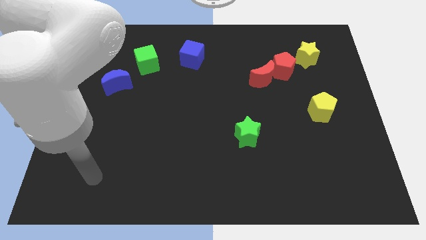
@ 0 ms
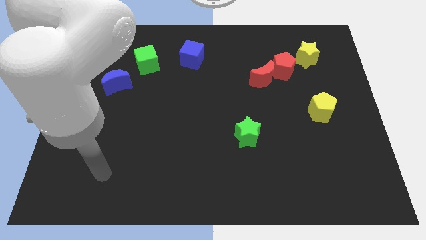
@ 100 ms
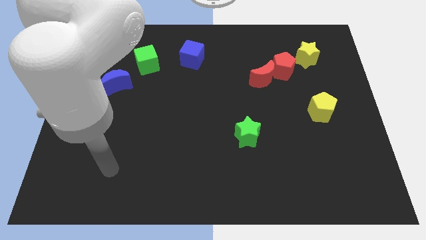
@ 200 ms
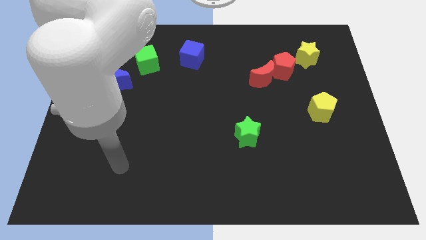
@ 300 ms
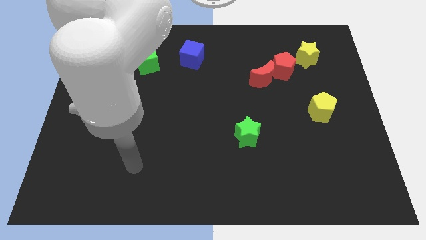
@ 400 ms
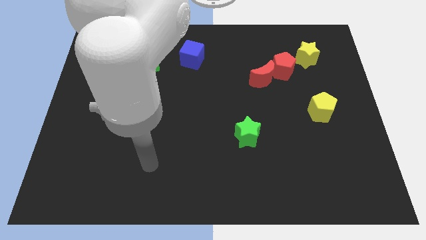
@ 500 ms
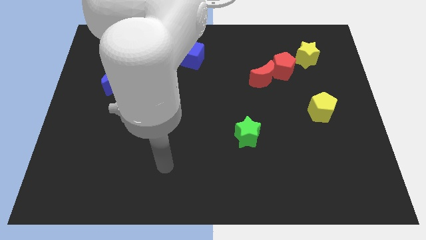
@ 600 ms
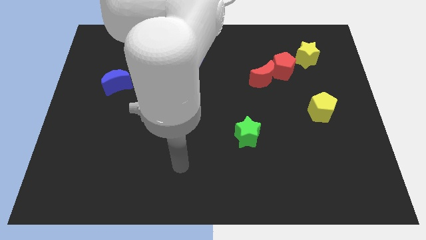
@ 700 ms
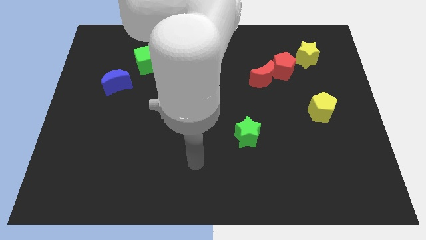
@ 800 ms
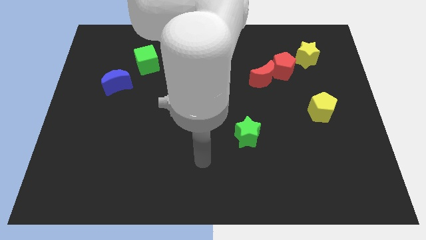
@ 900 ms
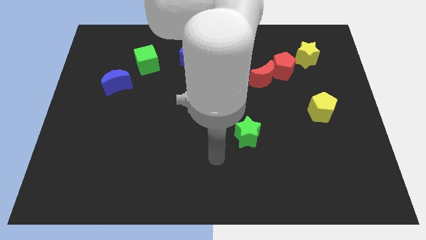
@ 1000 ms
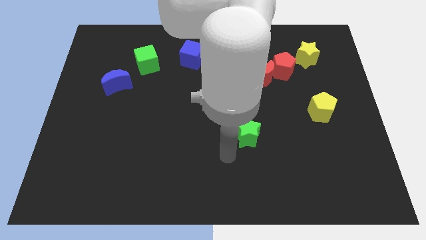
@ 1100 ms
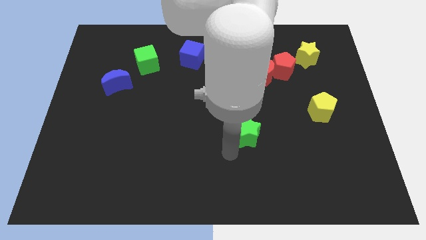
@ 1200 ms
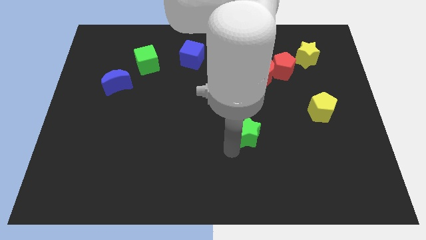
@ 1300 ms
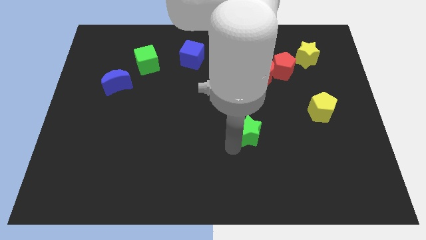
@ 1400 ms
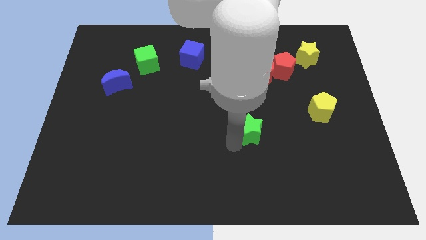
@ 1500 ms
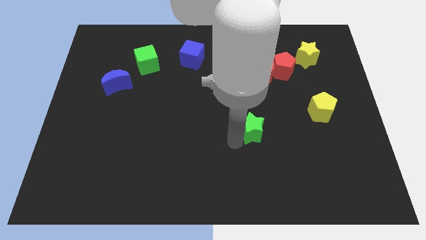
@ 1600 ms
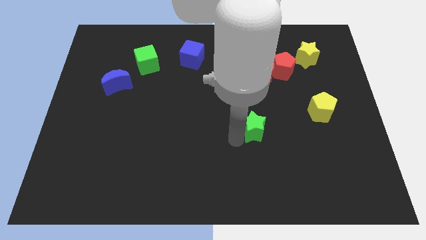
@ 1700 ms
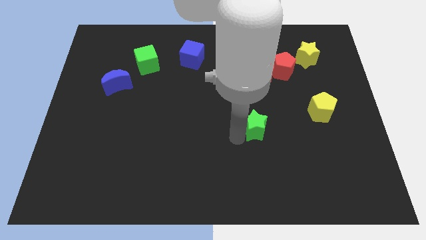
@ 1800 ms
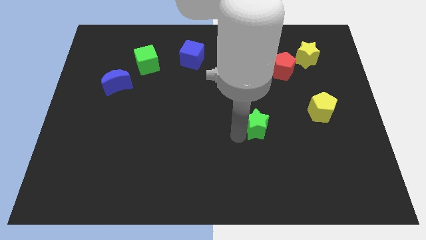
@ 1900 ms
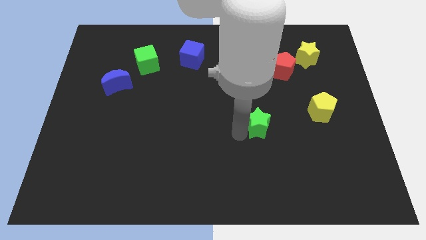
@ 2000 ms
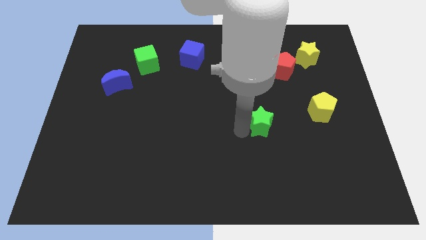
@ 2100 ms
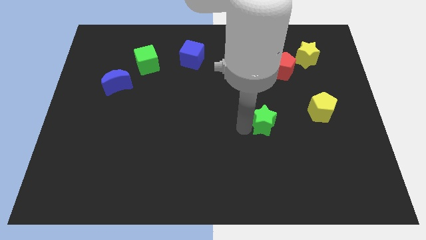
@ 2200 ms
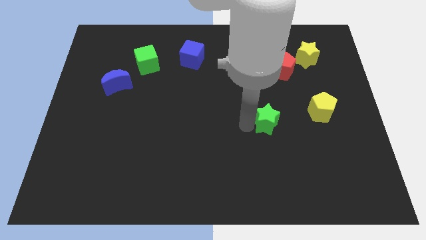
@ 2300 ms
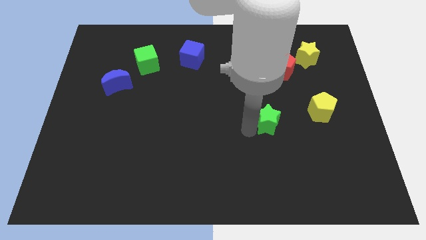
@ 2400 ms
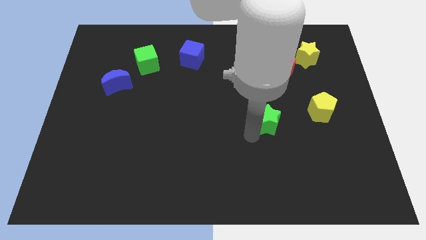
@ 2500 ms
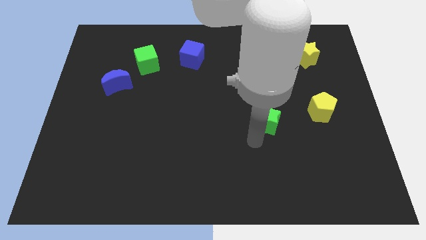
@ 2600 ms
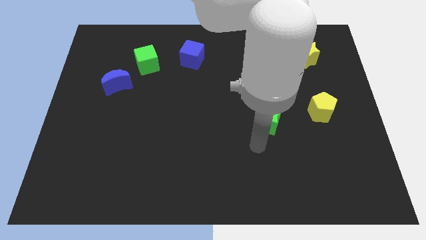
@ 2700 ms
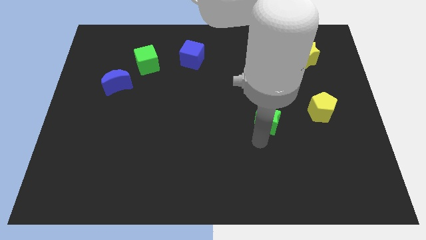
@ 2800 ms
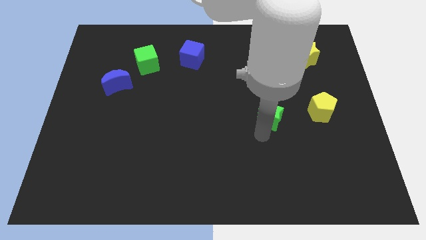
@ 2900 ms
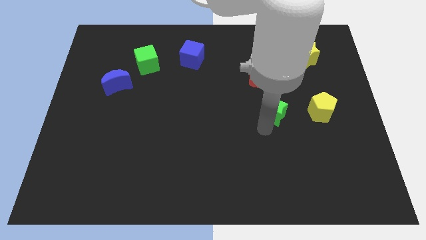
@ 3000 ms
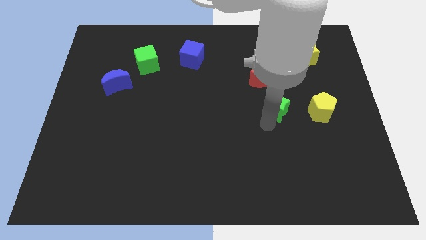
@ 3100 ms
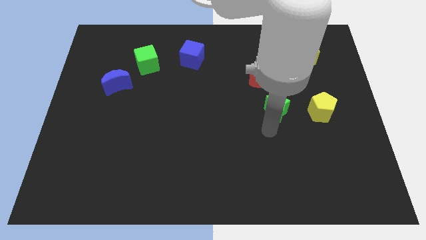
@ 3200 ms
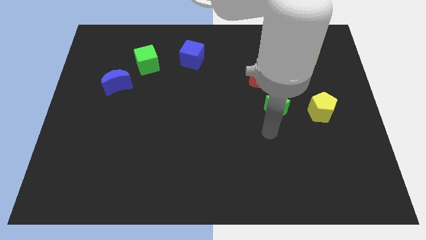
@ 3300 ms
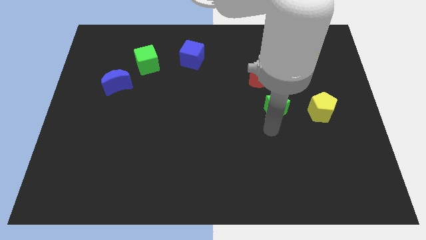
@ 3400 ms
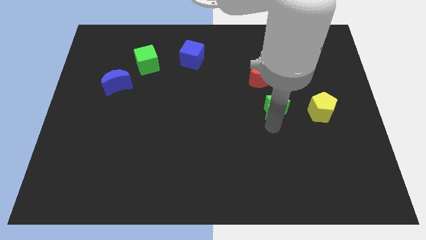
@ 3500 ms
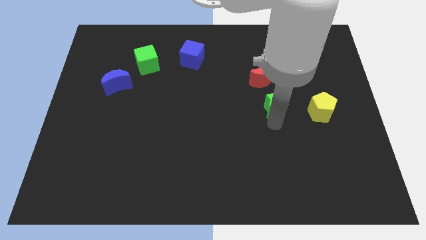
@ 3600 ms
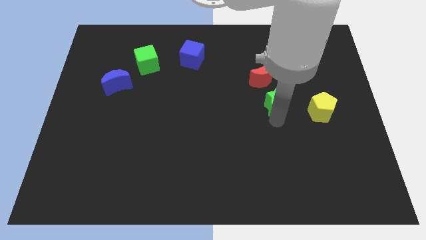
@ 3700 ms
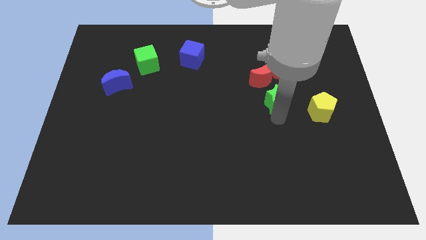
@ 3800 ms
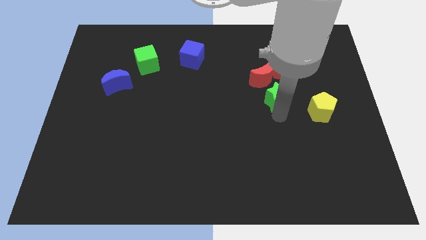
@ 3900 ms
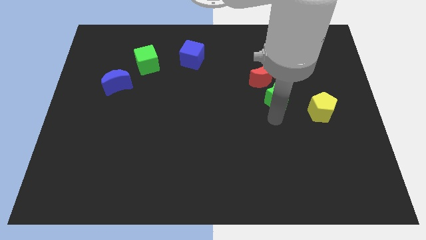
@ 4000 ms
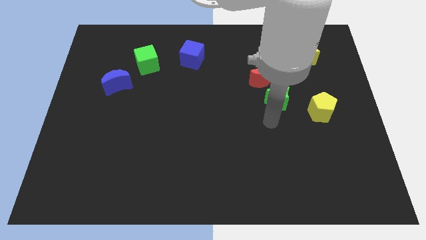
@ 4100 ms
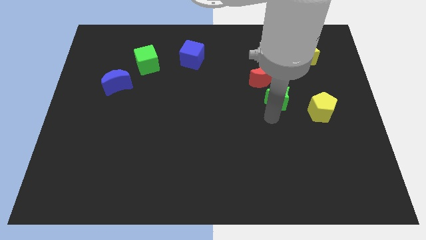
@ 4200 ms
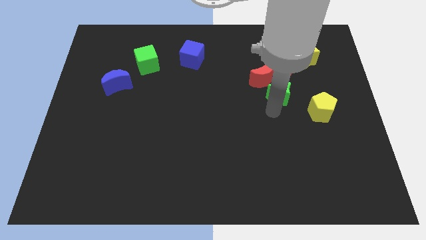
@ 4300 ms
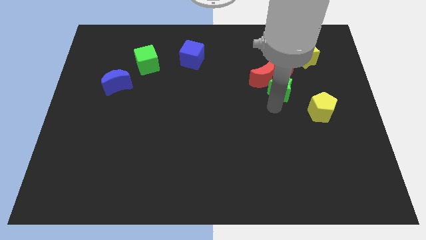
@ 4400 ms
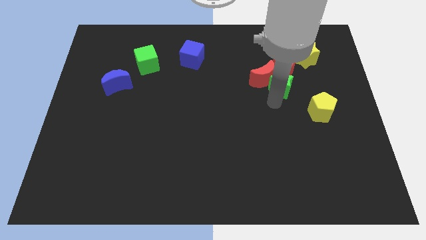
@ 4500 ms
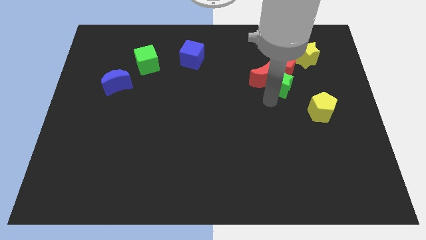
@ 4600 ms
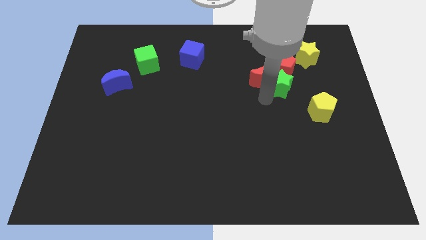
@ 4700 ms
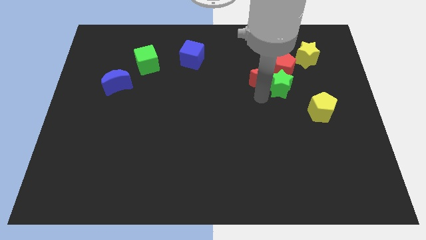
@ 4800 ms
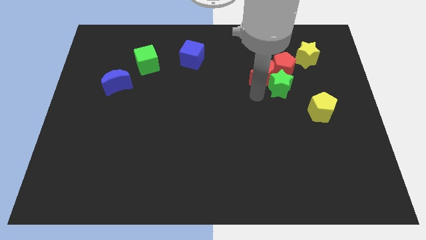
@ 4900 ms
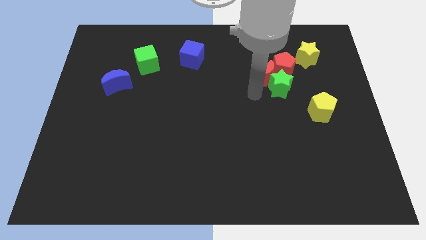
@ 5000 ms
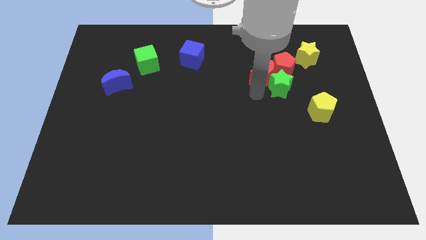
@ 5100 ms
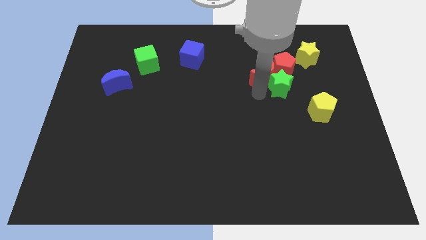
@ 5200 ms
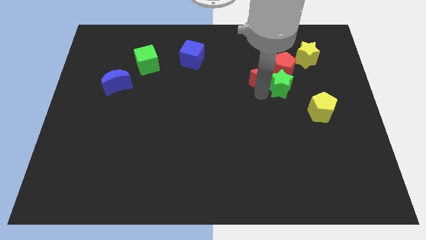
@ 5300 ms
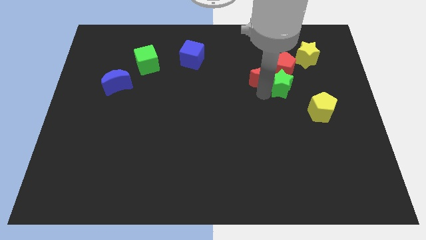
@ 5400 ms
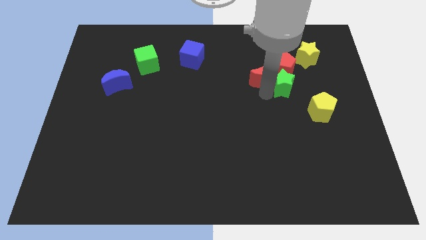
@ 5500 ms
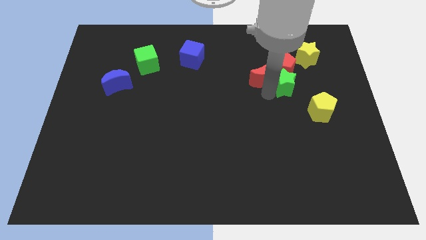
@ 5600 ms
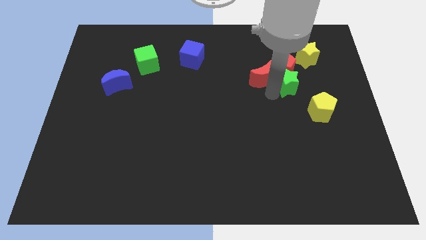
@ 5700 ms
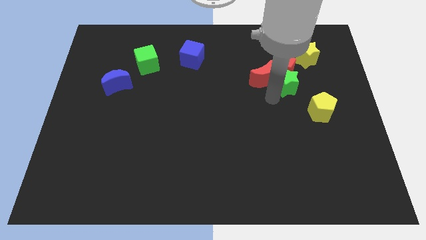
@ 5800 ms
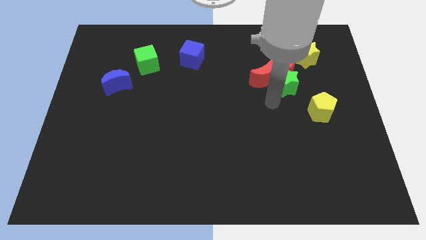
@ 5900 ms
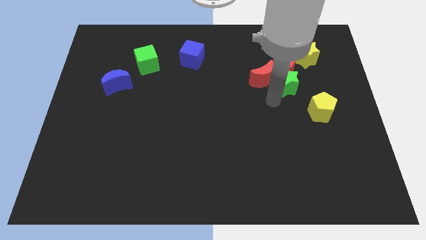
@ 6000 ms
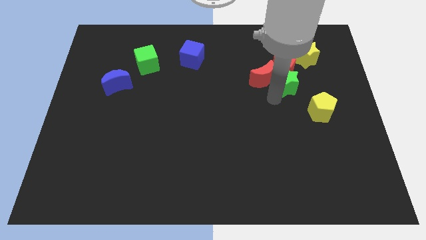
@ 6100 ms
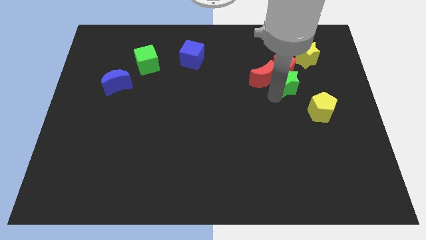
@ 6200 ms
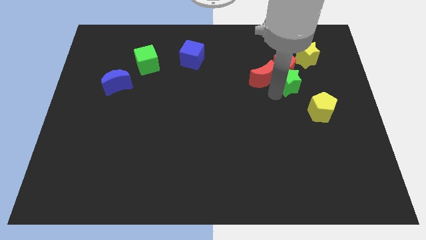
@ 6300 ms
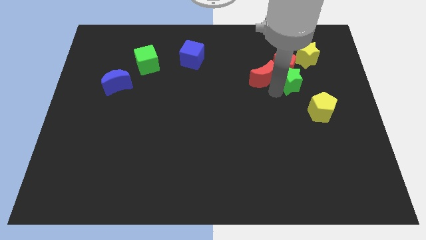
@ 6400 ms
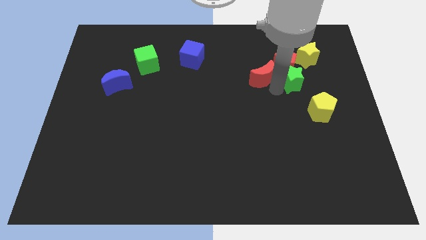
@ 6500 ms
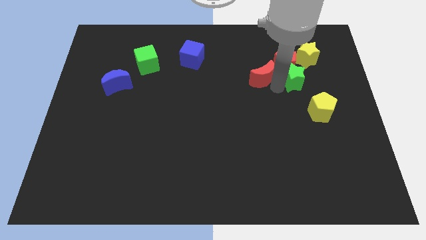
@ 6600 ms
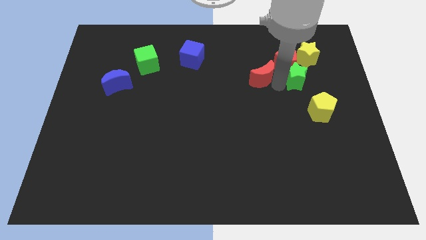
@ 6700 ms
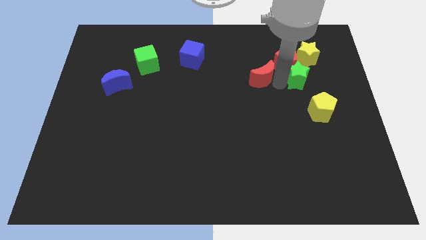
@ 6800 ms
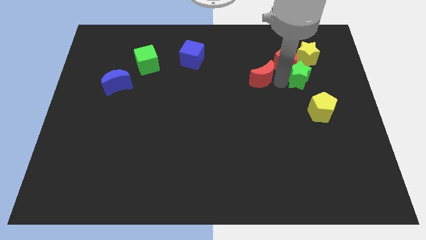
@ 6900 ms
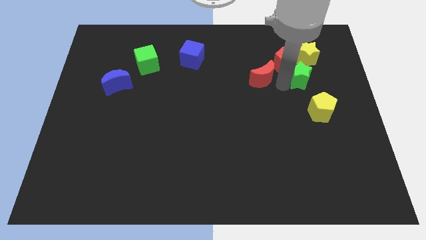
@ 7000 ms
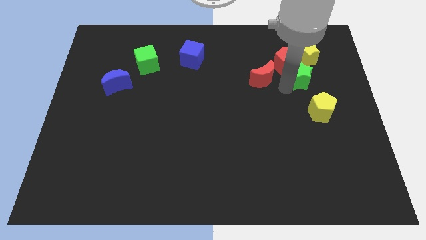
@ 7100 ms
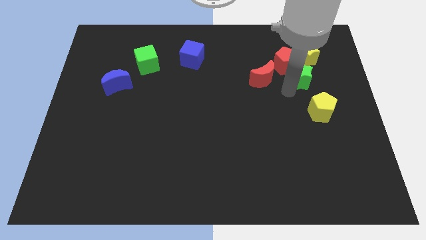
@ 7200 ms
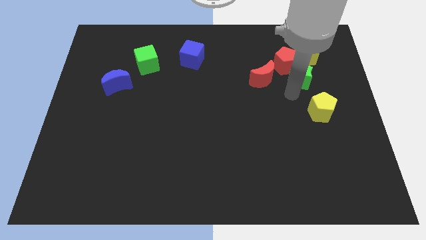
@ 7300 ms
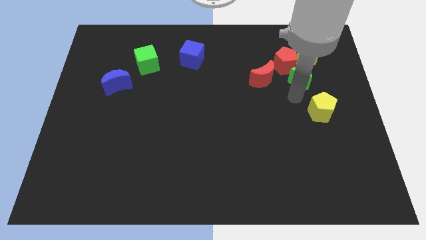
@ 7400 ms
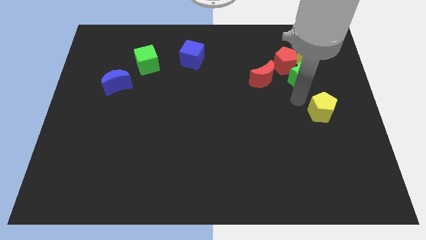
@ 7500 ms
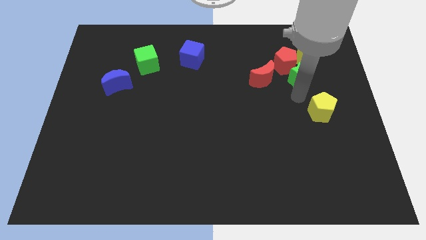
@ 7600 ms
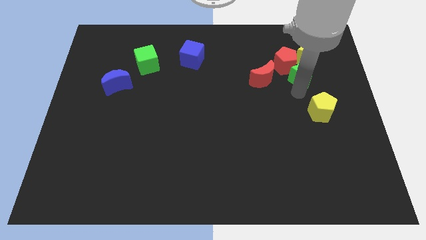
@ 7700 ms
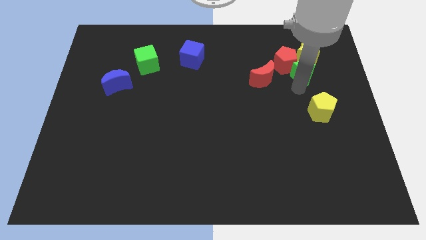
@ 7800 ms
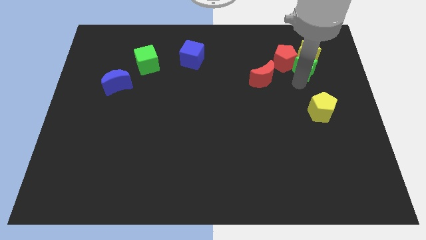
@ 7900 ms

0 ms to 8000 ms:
put the green star to the yellow star
